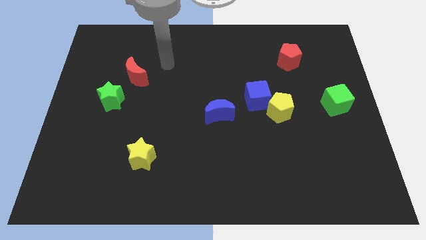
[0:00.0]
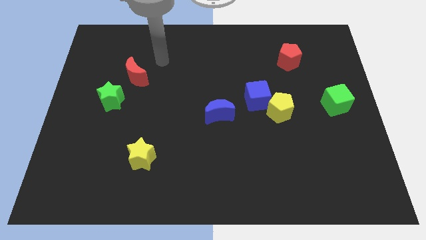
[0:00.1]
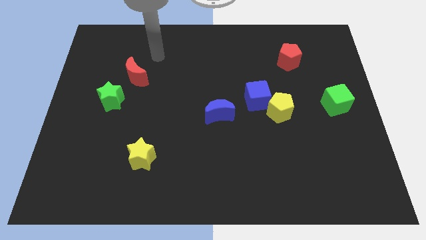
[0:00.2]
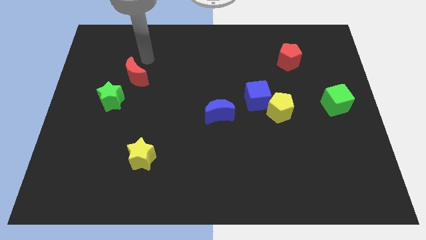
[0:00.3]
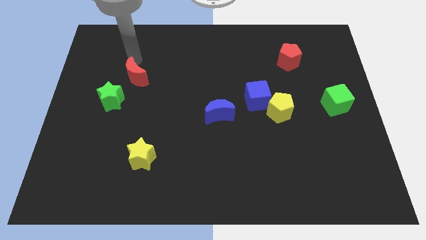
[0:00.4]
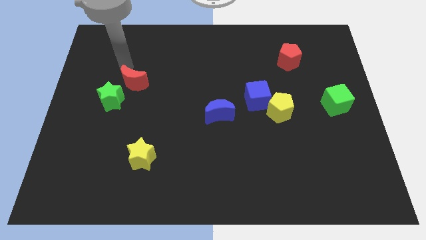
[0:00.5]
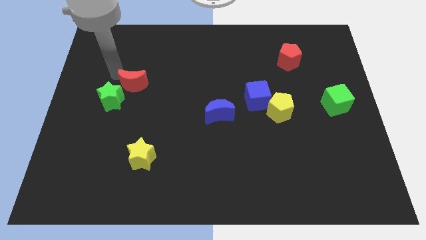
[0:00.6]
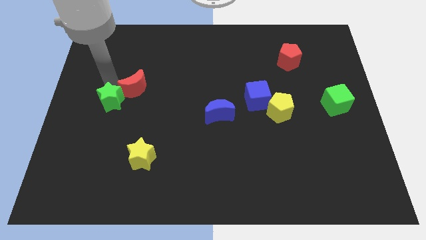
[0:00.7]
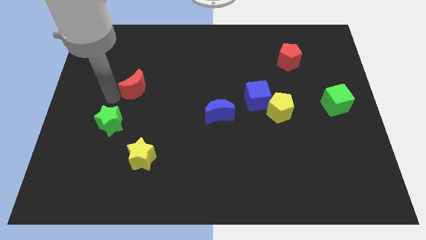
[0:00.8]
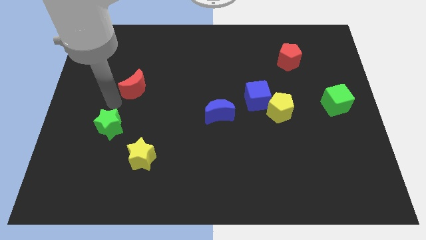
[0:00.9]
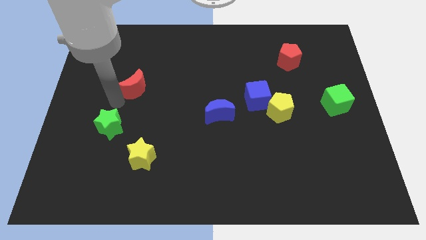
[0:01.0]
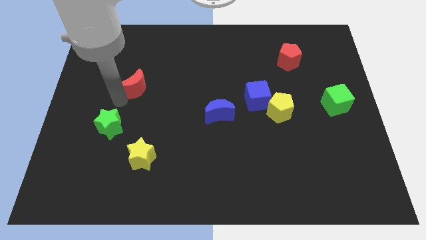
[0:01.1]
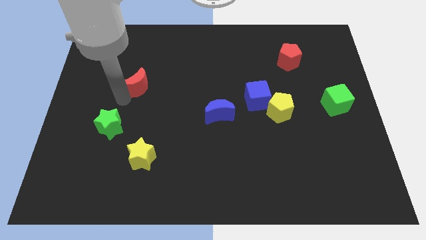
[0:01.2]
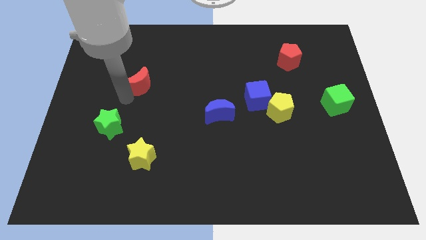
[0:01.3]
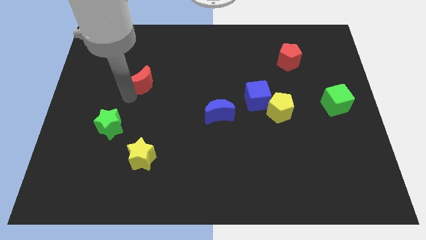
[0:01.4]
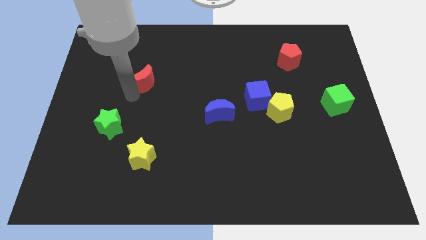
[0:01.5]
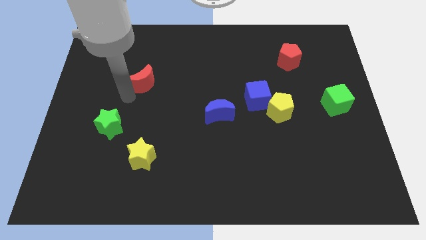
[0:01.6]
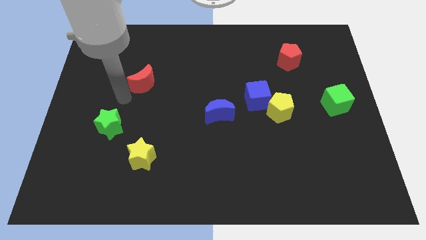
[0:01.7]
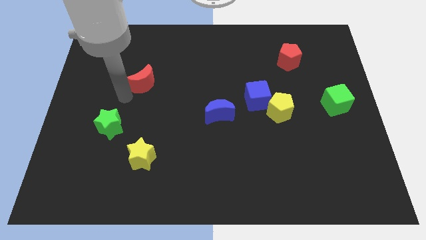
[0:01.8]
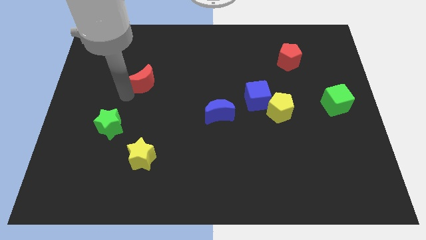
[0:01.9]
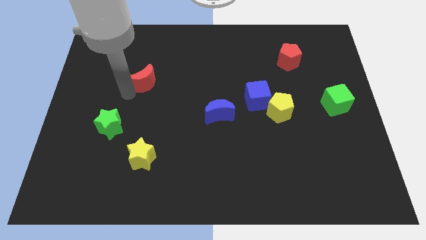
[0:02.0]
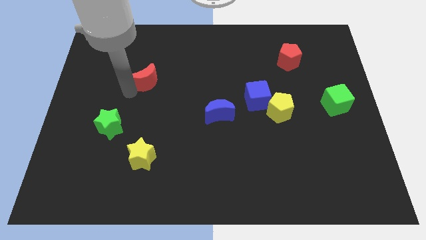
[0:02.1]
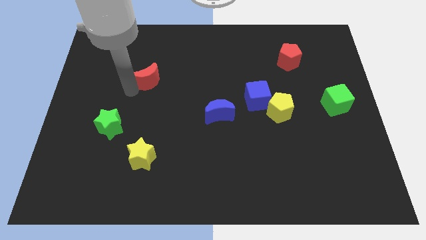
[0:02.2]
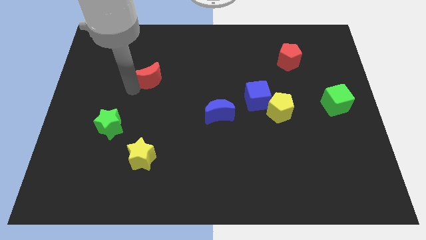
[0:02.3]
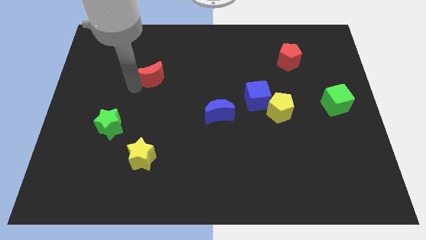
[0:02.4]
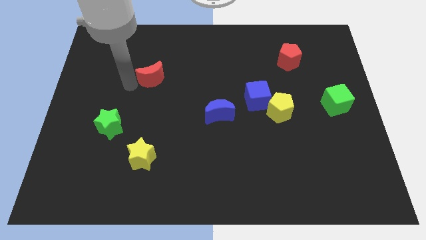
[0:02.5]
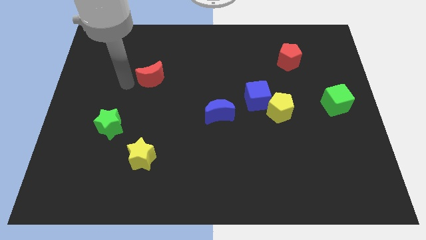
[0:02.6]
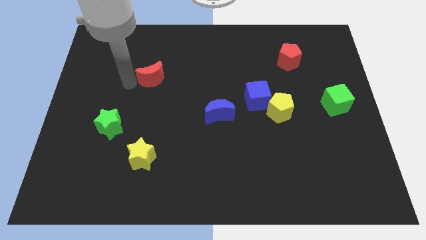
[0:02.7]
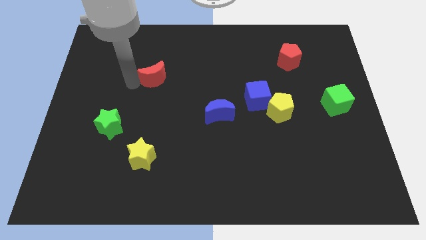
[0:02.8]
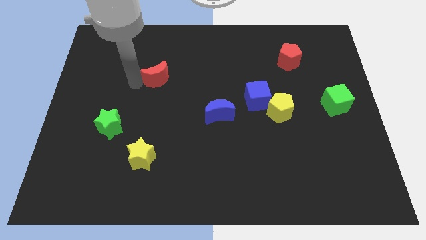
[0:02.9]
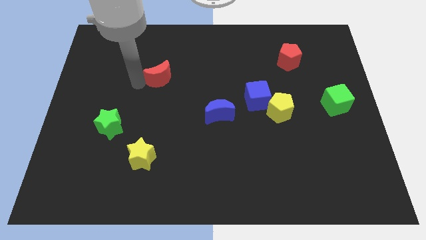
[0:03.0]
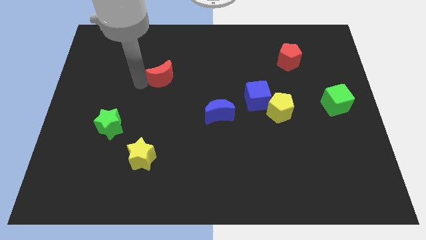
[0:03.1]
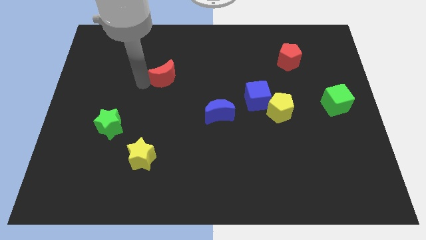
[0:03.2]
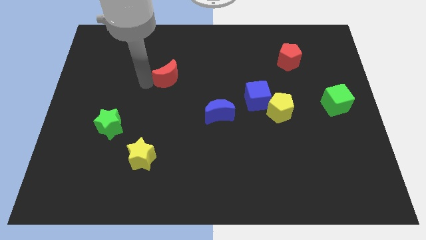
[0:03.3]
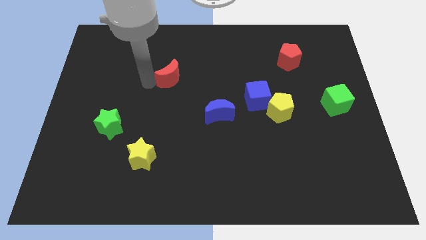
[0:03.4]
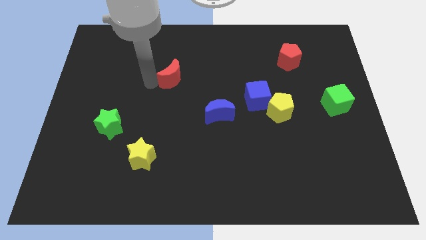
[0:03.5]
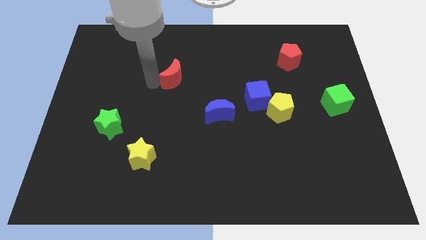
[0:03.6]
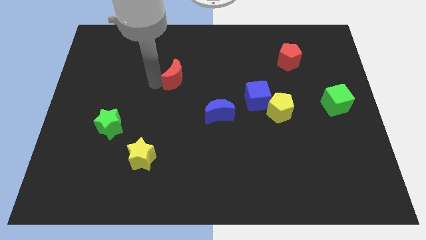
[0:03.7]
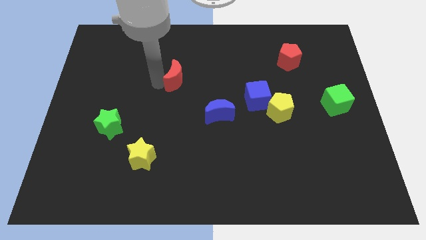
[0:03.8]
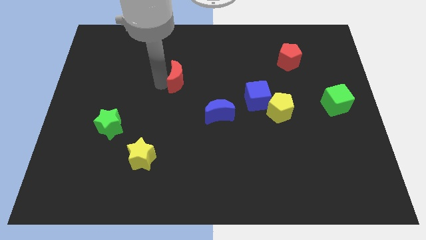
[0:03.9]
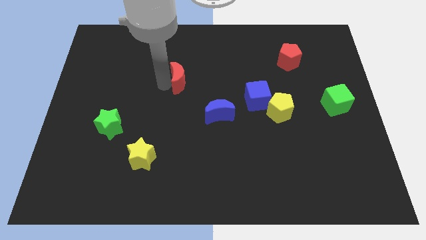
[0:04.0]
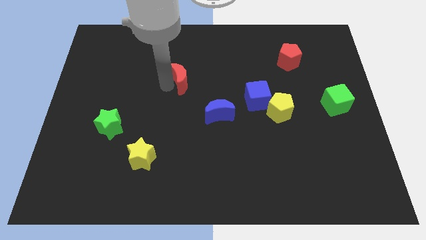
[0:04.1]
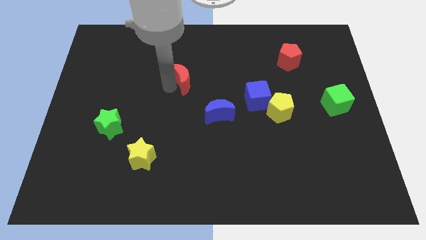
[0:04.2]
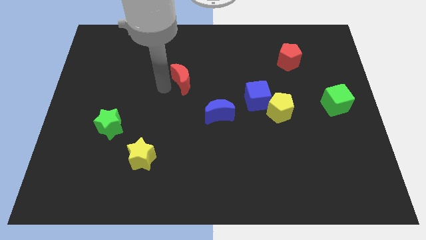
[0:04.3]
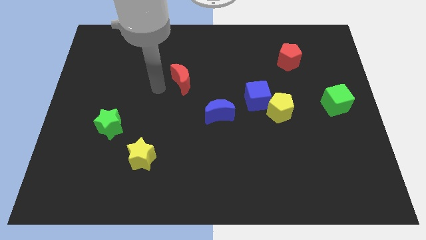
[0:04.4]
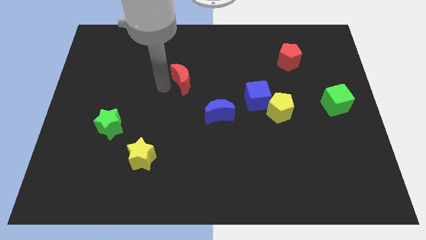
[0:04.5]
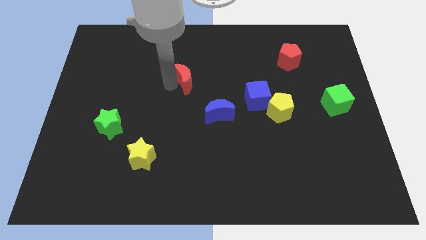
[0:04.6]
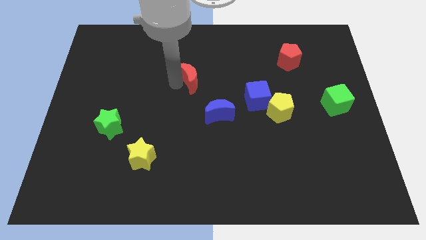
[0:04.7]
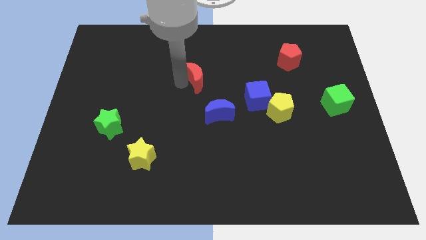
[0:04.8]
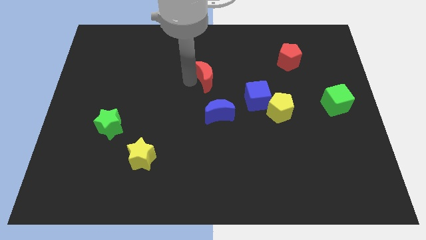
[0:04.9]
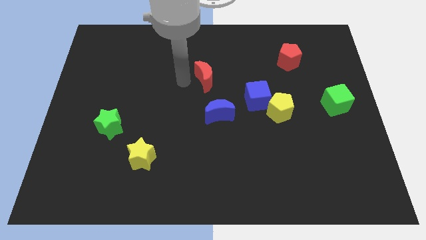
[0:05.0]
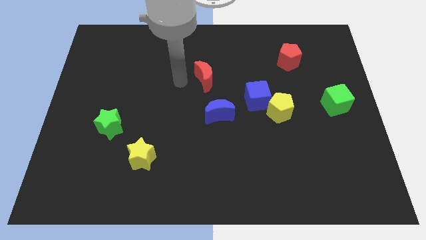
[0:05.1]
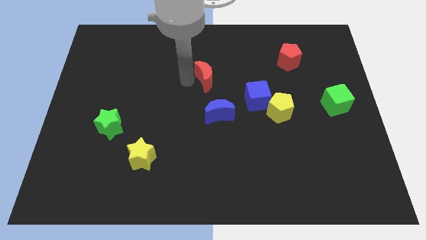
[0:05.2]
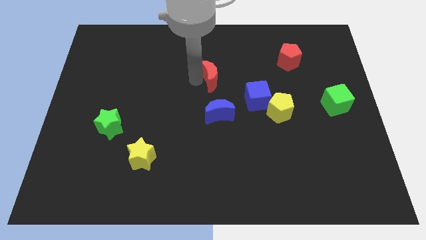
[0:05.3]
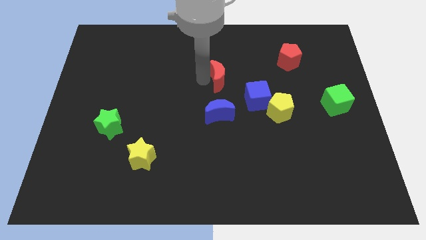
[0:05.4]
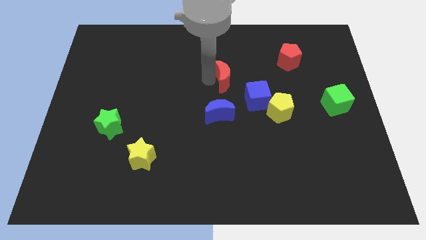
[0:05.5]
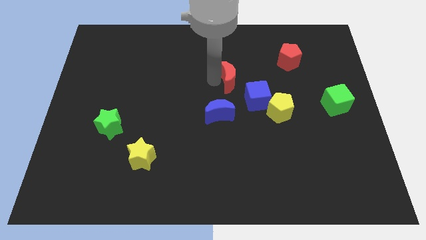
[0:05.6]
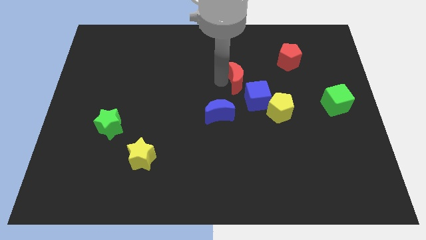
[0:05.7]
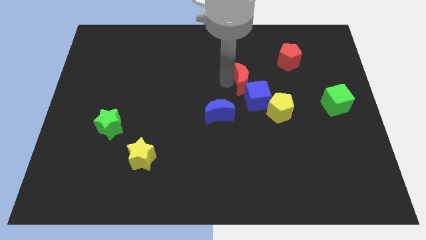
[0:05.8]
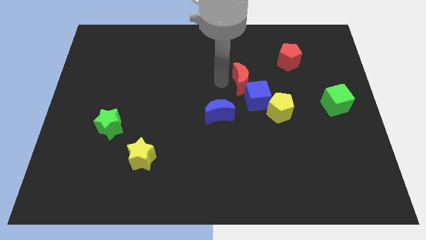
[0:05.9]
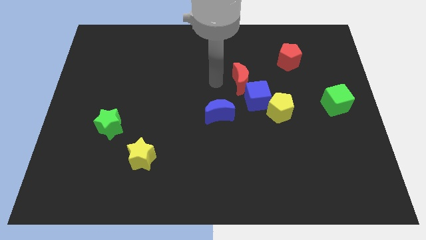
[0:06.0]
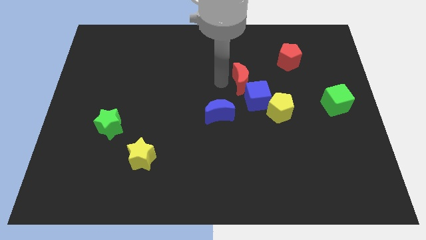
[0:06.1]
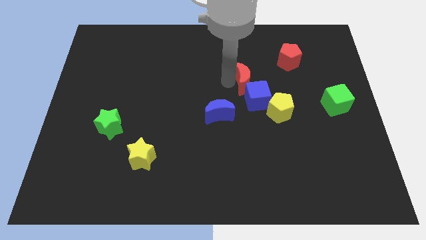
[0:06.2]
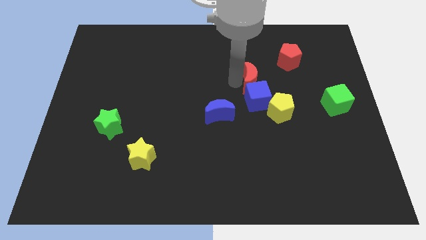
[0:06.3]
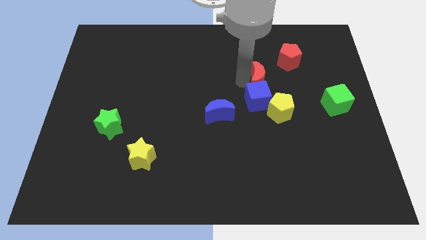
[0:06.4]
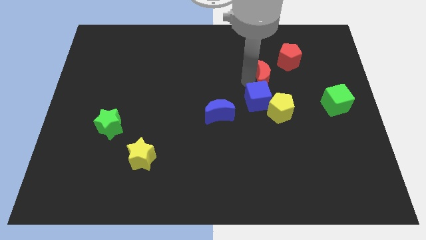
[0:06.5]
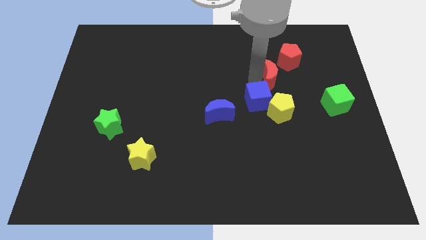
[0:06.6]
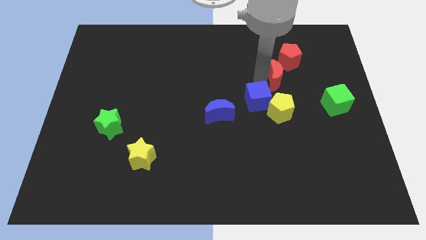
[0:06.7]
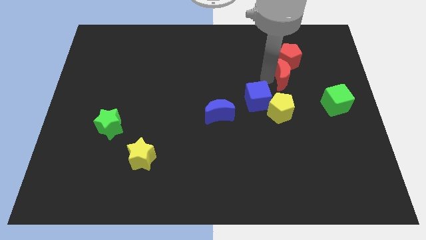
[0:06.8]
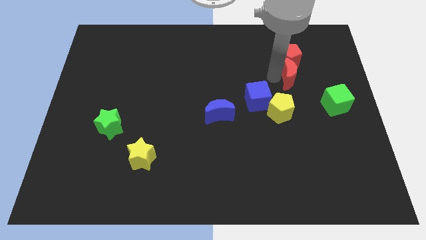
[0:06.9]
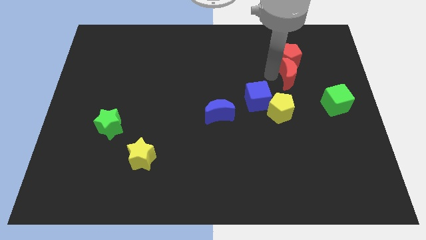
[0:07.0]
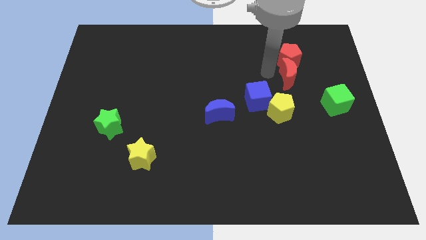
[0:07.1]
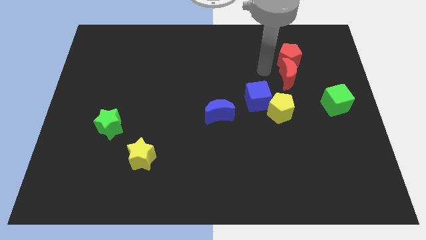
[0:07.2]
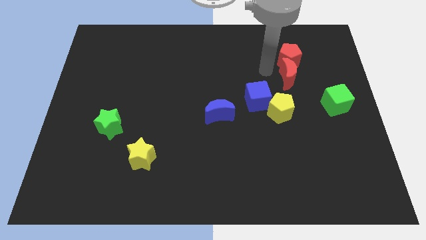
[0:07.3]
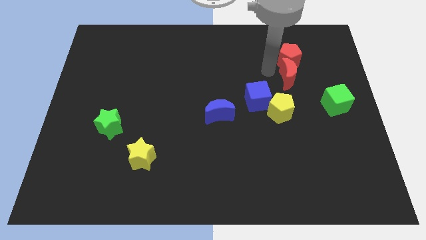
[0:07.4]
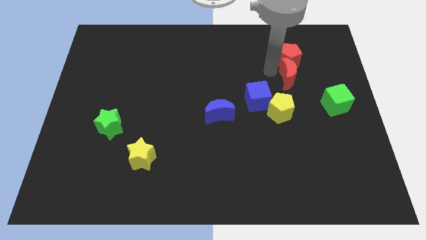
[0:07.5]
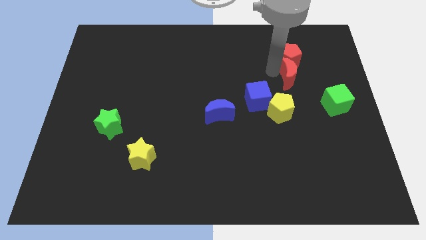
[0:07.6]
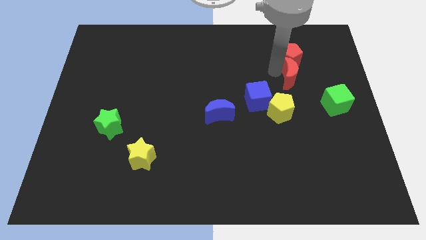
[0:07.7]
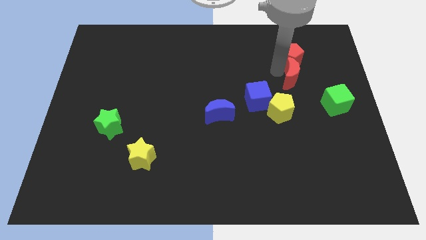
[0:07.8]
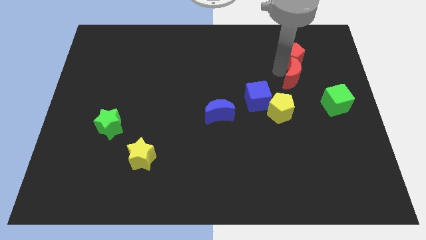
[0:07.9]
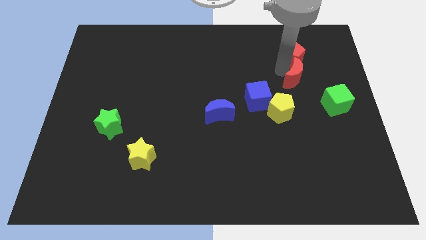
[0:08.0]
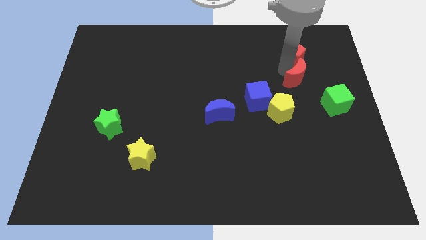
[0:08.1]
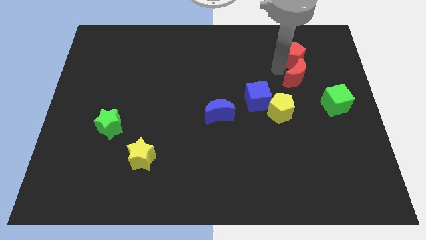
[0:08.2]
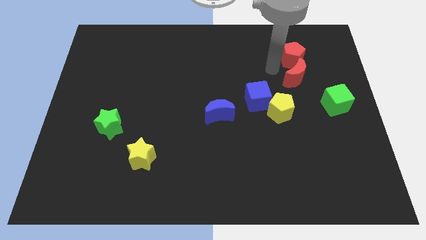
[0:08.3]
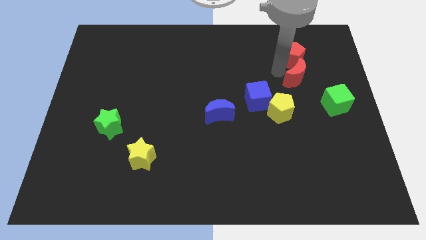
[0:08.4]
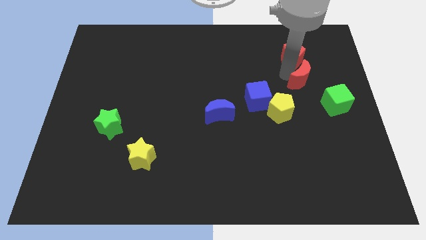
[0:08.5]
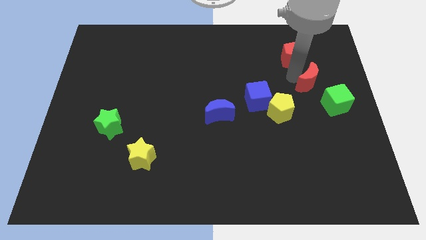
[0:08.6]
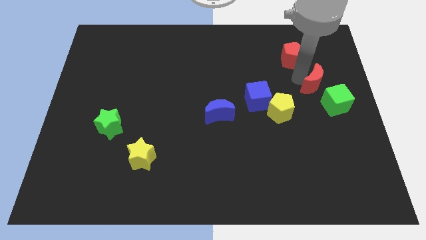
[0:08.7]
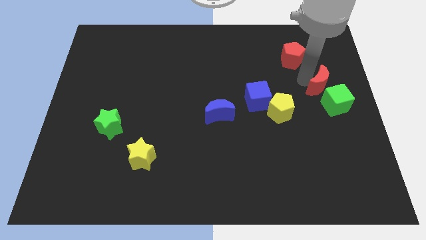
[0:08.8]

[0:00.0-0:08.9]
push the red moon to the right side of the board
